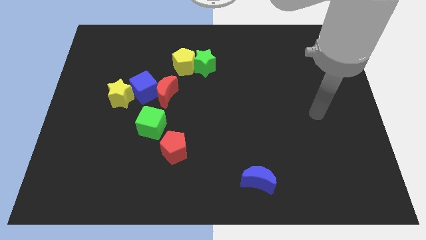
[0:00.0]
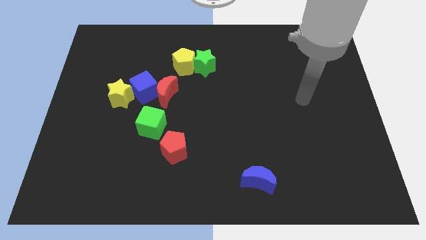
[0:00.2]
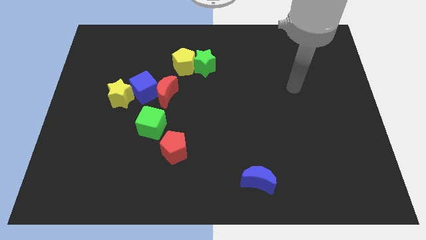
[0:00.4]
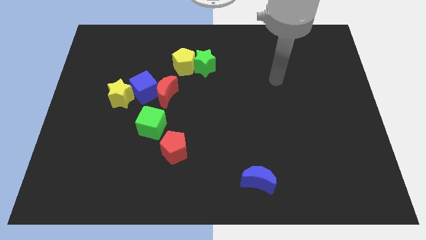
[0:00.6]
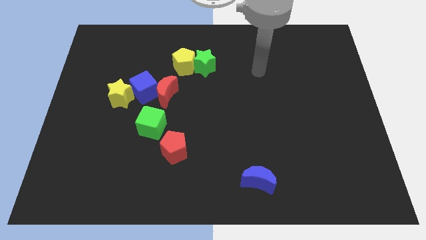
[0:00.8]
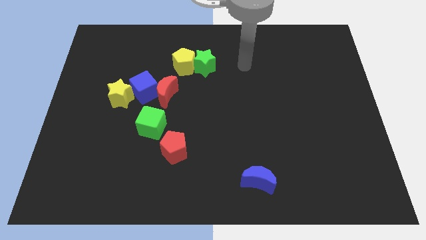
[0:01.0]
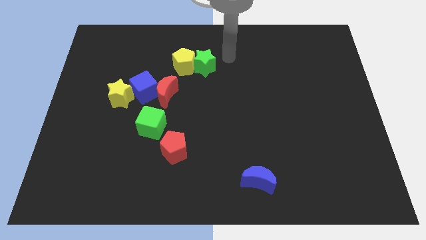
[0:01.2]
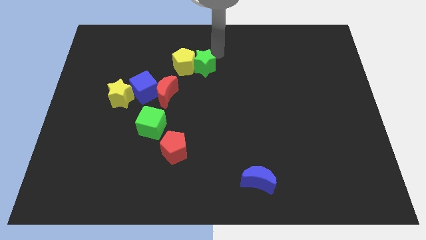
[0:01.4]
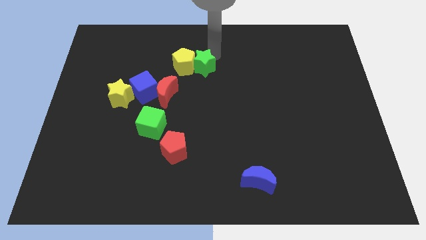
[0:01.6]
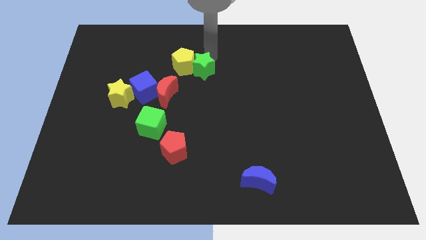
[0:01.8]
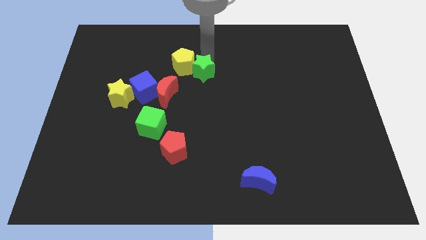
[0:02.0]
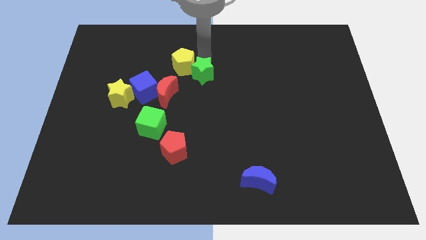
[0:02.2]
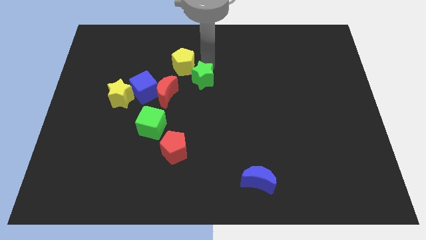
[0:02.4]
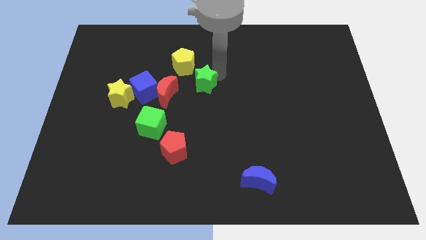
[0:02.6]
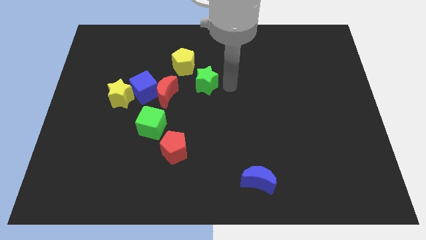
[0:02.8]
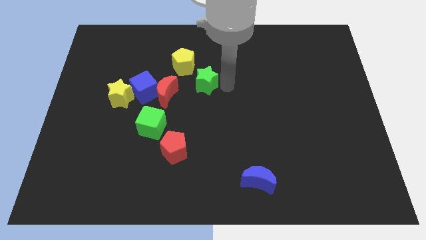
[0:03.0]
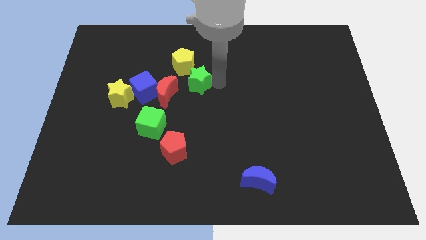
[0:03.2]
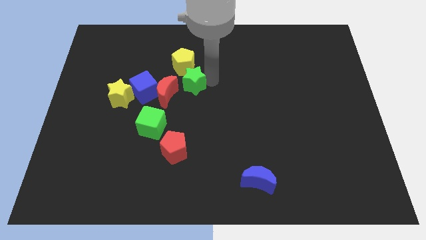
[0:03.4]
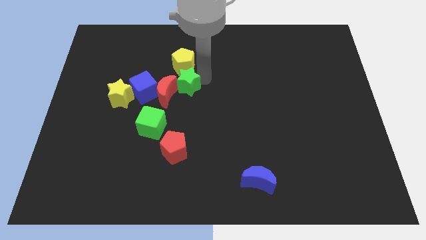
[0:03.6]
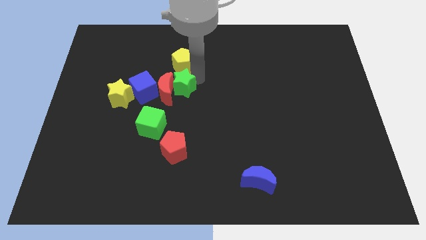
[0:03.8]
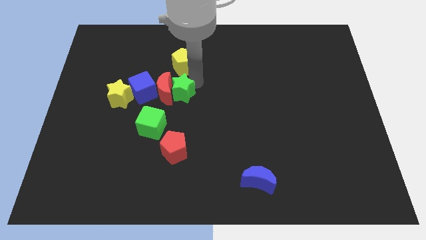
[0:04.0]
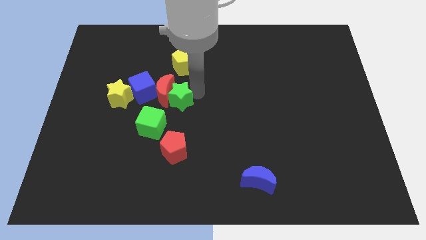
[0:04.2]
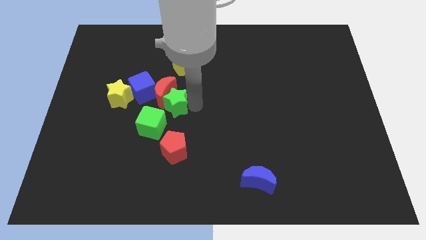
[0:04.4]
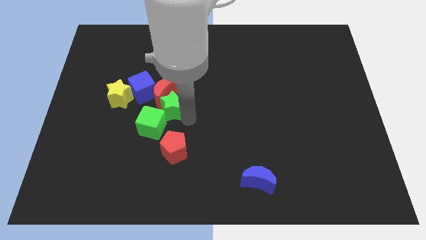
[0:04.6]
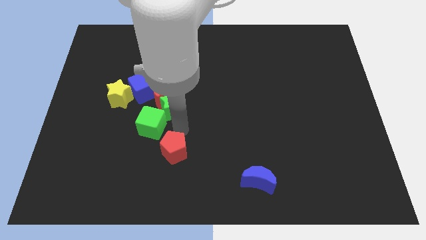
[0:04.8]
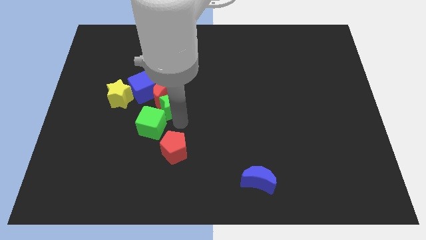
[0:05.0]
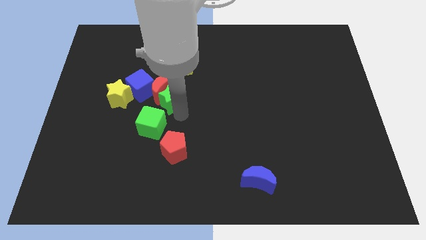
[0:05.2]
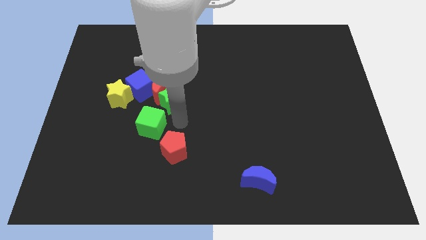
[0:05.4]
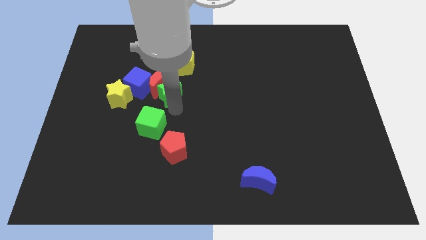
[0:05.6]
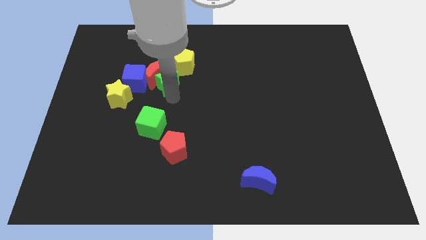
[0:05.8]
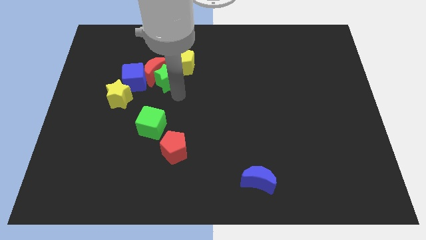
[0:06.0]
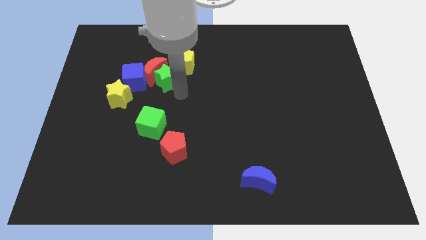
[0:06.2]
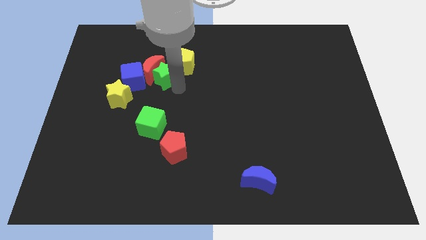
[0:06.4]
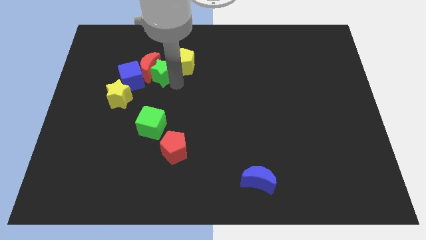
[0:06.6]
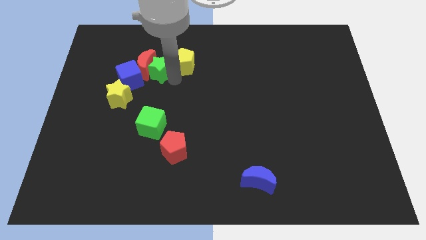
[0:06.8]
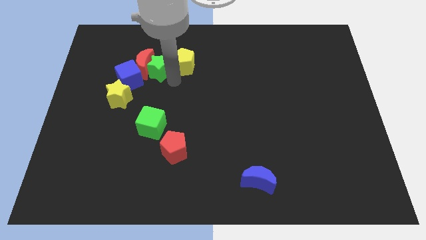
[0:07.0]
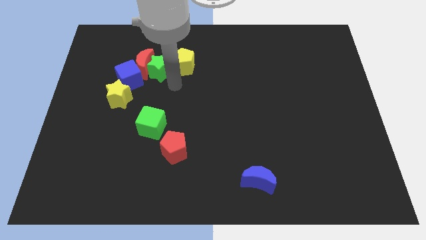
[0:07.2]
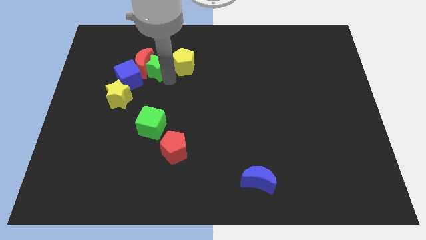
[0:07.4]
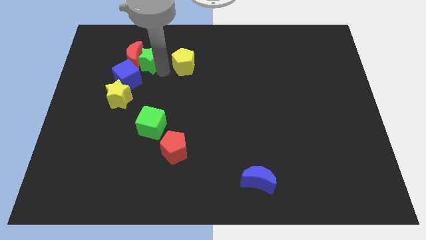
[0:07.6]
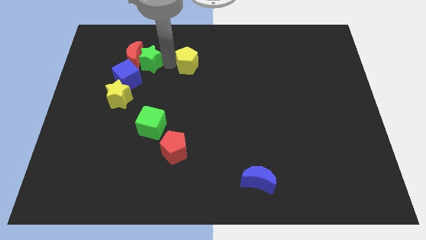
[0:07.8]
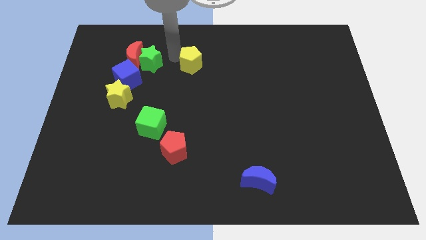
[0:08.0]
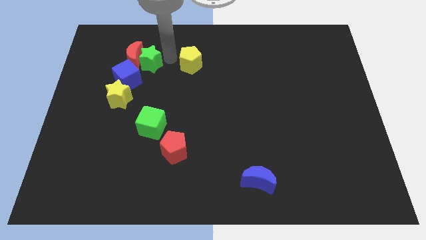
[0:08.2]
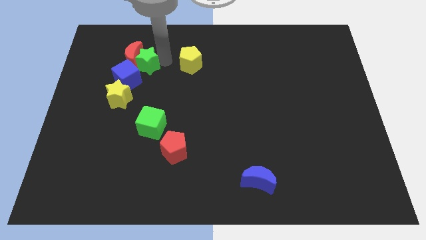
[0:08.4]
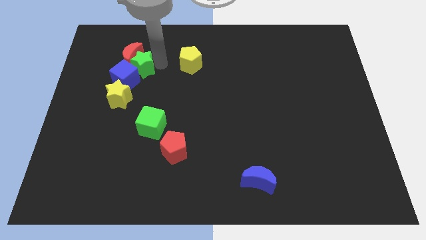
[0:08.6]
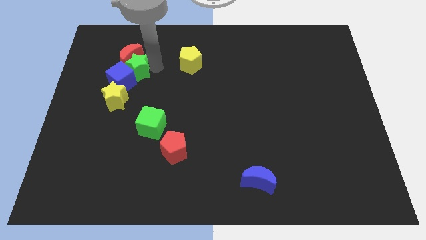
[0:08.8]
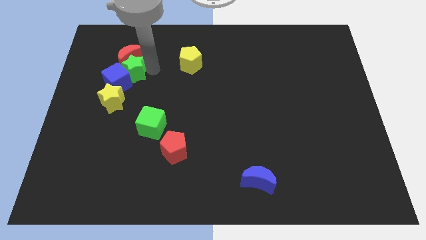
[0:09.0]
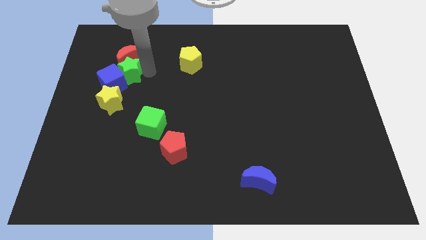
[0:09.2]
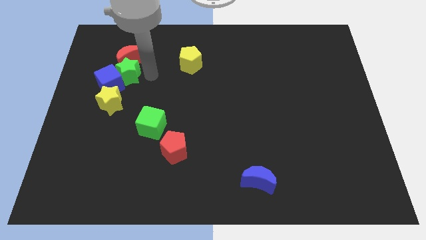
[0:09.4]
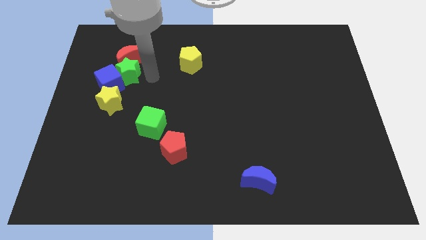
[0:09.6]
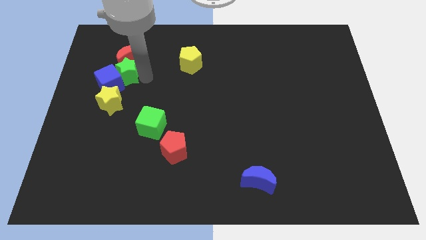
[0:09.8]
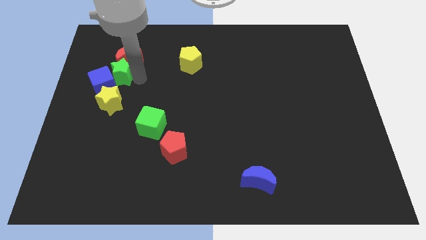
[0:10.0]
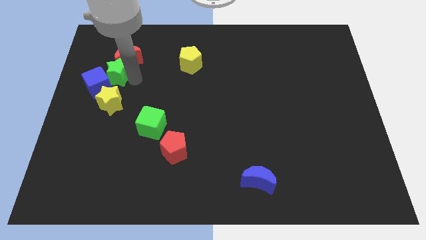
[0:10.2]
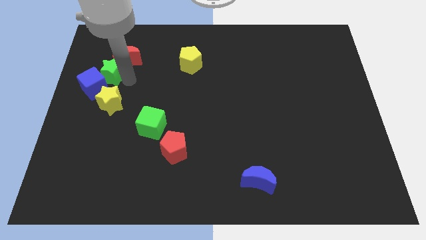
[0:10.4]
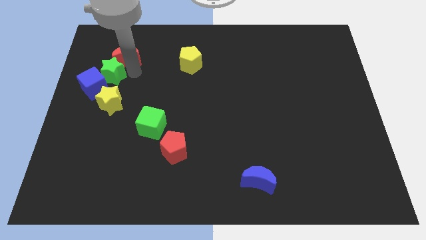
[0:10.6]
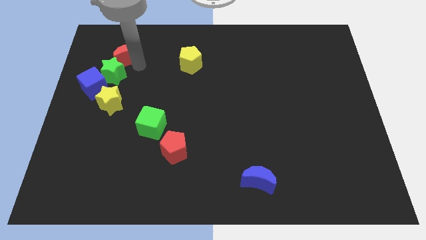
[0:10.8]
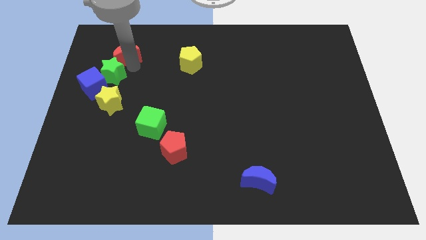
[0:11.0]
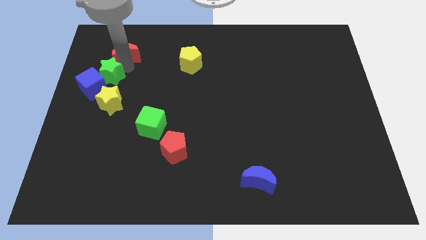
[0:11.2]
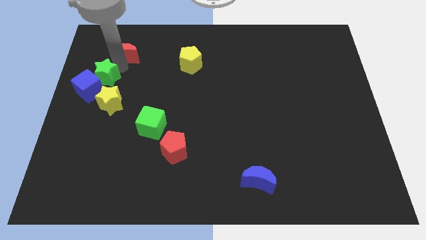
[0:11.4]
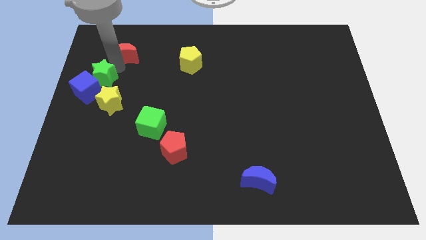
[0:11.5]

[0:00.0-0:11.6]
slide the green star to the left side

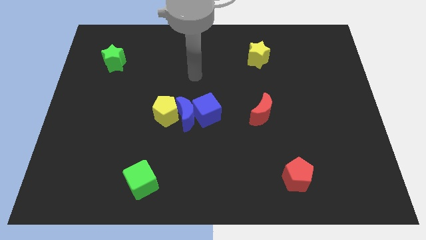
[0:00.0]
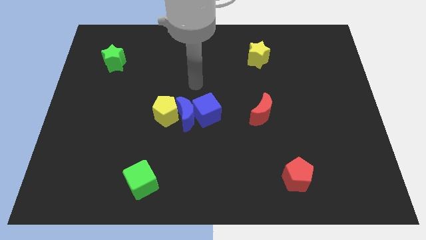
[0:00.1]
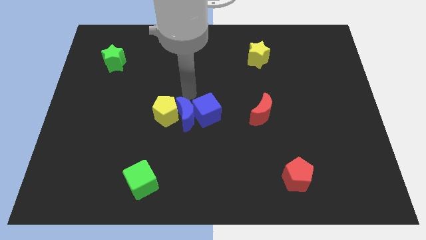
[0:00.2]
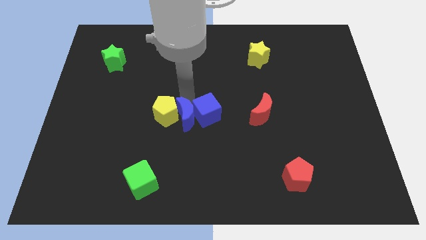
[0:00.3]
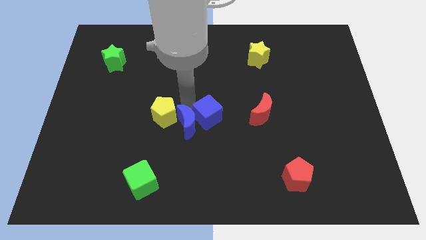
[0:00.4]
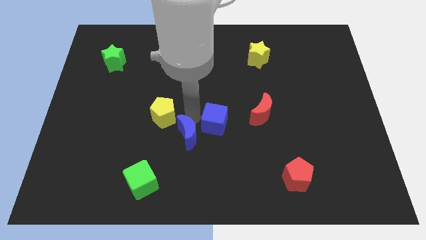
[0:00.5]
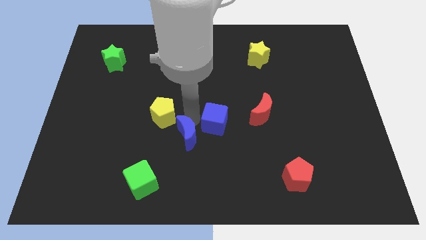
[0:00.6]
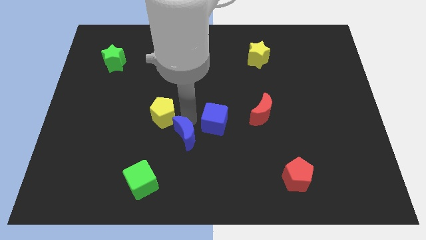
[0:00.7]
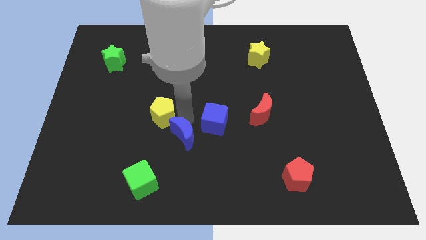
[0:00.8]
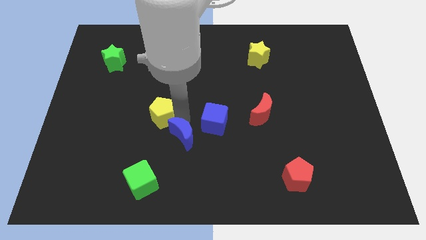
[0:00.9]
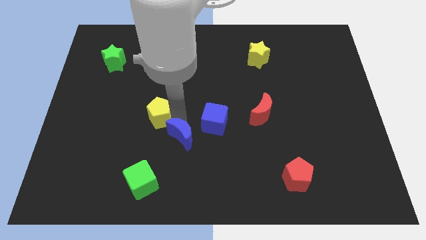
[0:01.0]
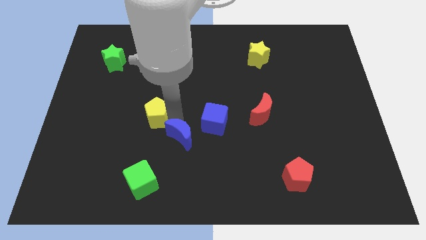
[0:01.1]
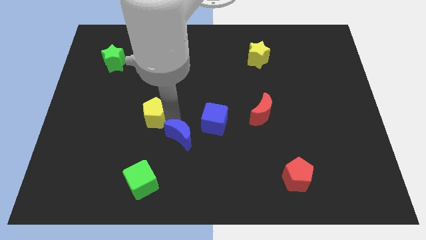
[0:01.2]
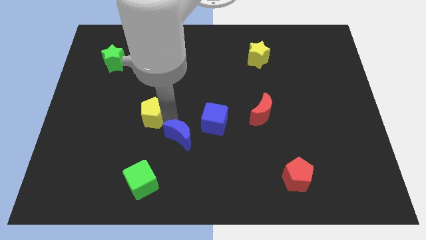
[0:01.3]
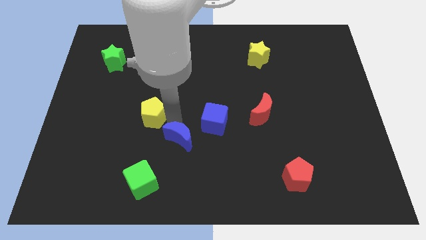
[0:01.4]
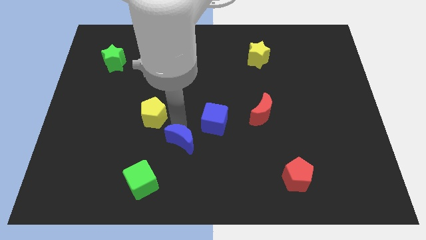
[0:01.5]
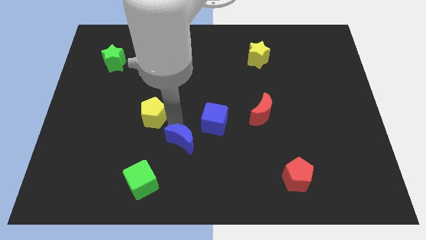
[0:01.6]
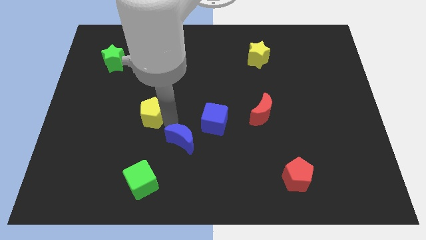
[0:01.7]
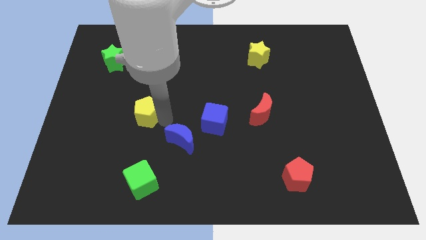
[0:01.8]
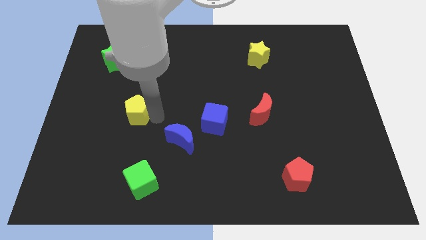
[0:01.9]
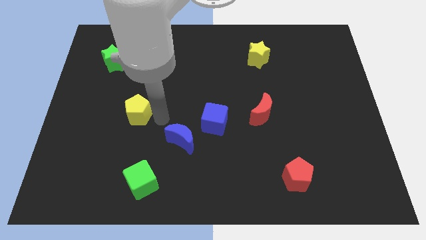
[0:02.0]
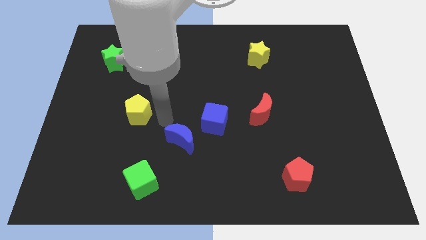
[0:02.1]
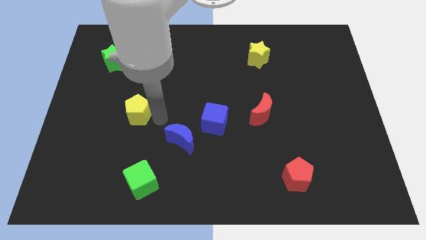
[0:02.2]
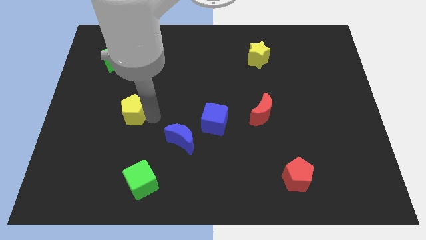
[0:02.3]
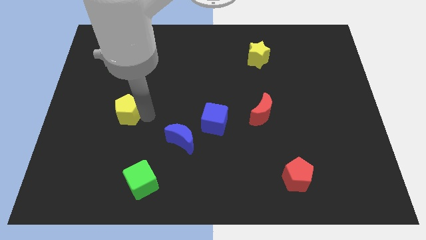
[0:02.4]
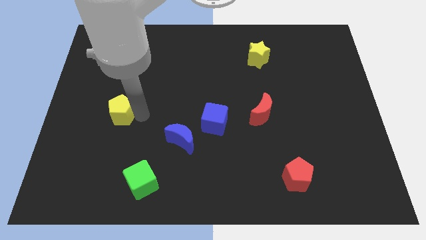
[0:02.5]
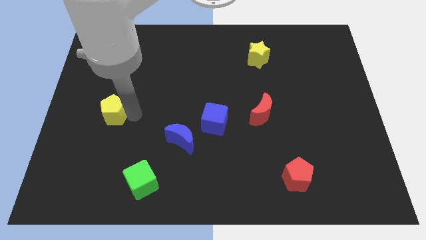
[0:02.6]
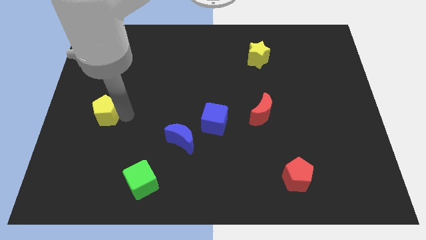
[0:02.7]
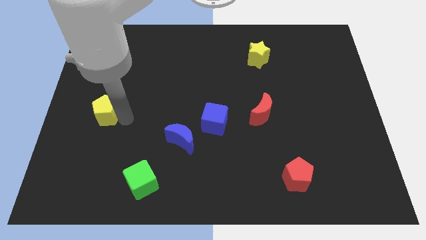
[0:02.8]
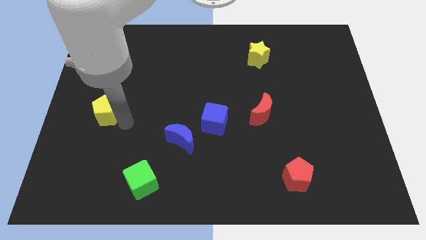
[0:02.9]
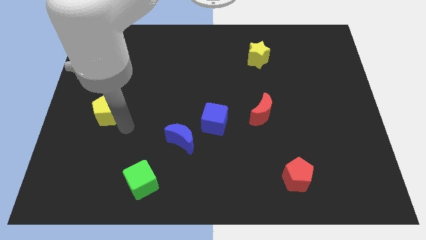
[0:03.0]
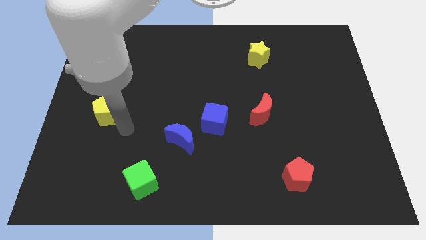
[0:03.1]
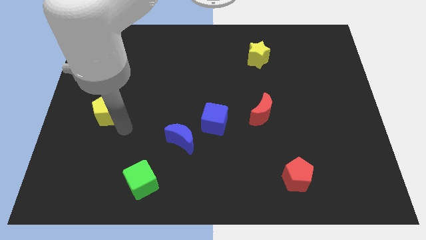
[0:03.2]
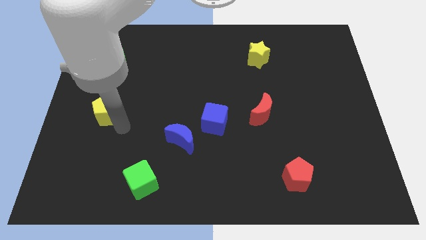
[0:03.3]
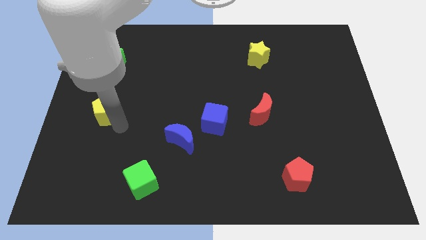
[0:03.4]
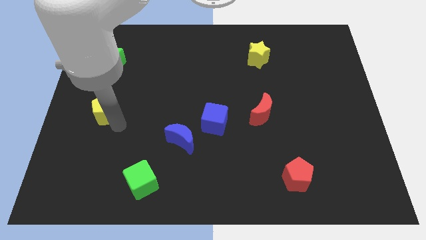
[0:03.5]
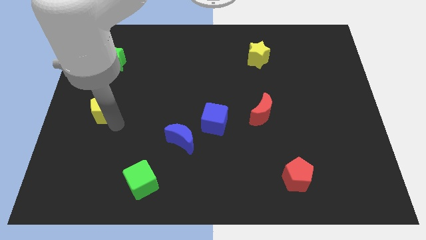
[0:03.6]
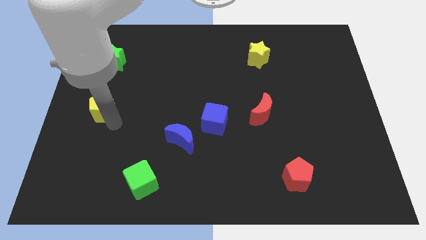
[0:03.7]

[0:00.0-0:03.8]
slide the yellow pentagon to the center left
